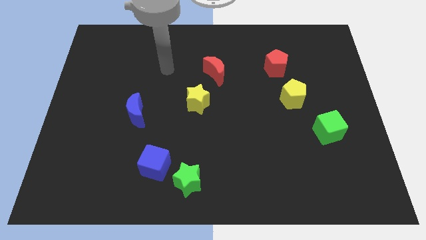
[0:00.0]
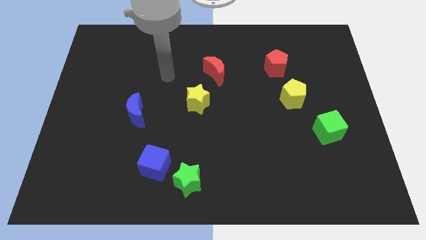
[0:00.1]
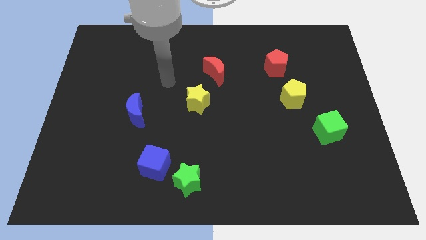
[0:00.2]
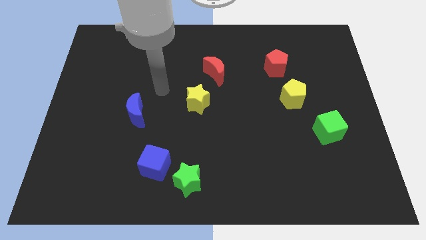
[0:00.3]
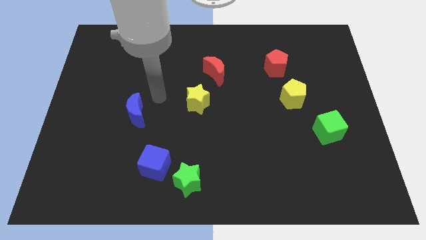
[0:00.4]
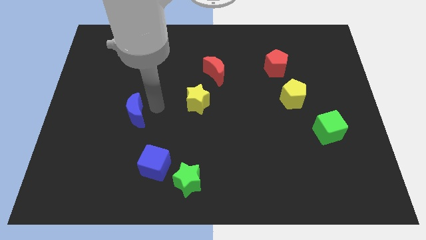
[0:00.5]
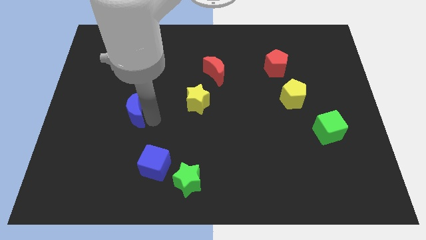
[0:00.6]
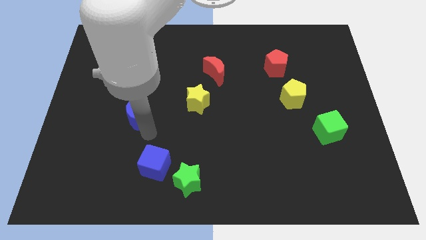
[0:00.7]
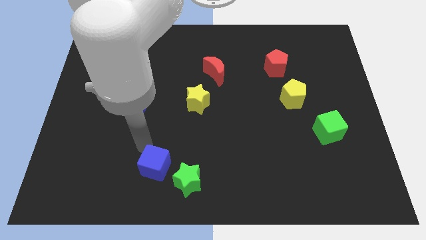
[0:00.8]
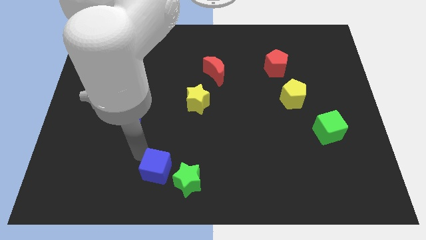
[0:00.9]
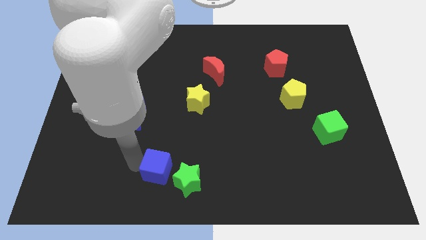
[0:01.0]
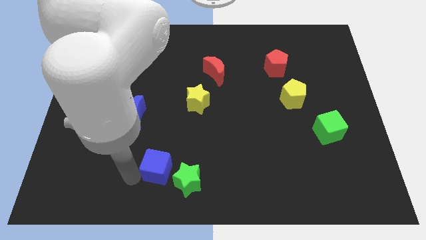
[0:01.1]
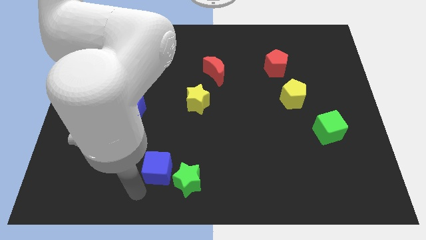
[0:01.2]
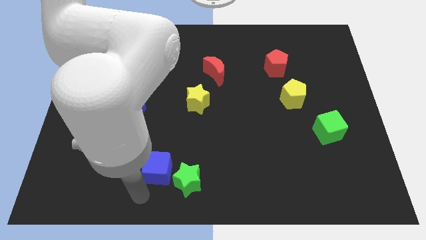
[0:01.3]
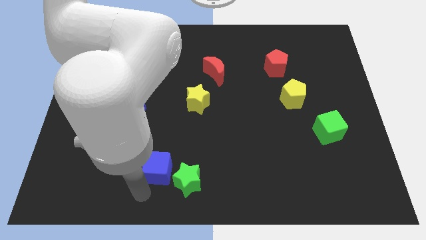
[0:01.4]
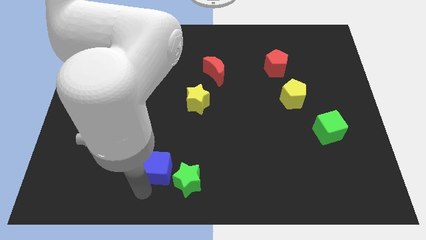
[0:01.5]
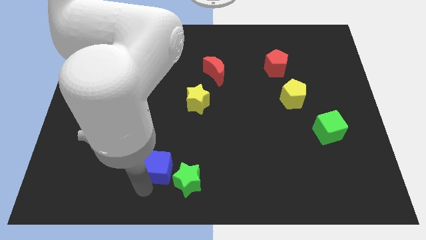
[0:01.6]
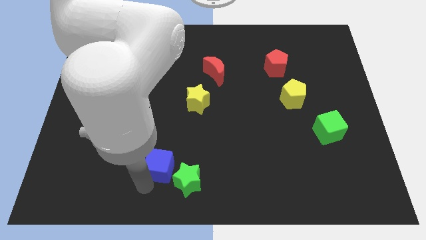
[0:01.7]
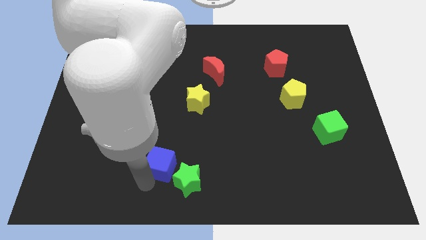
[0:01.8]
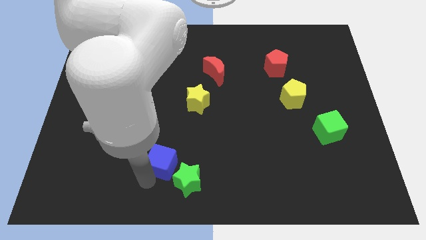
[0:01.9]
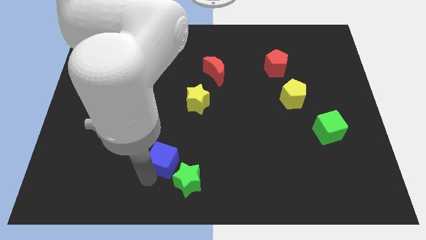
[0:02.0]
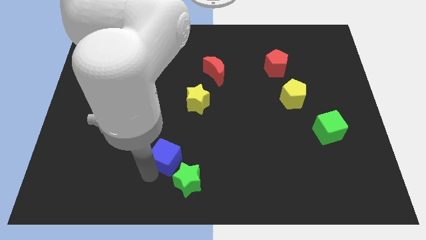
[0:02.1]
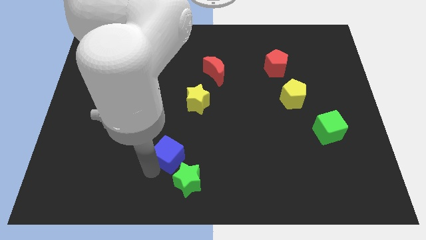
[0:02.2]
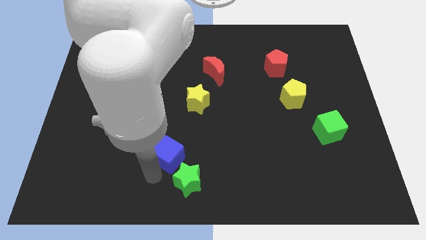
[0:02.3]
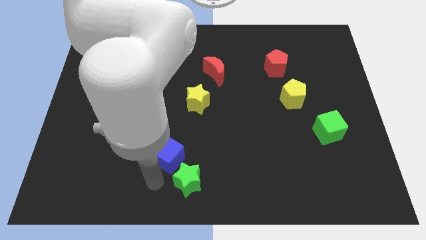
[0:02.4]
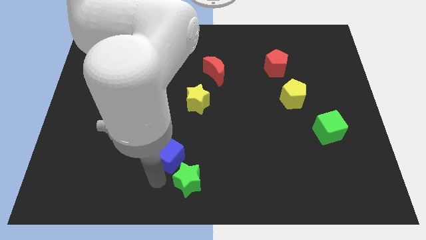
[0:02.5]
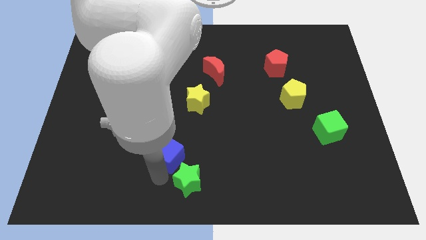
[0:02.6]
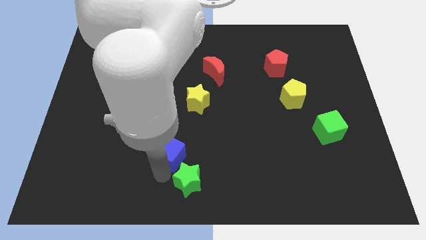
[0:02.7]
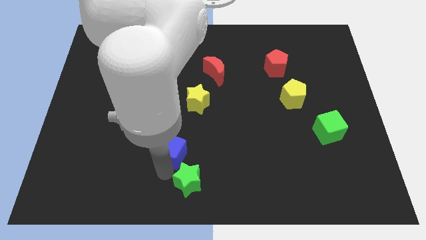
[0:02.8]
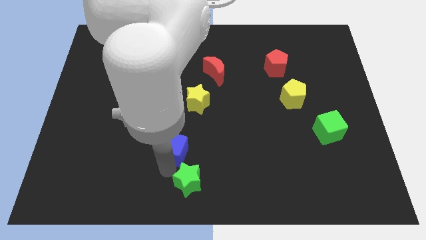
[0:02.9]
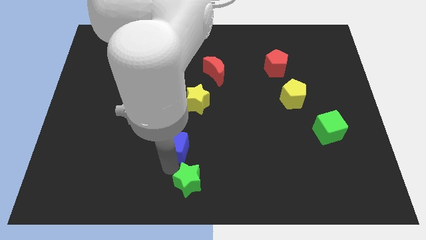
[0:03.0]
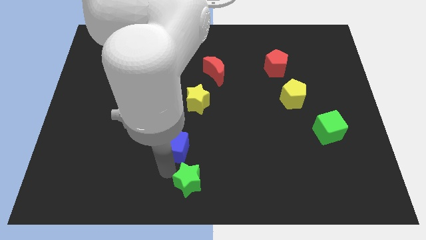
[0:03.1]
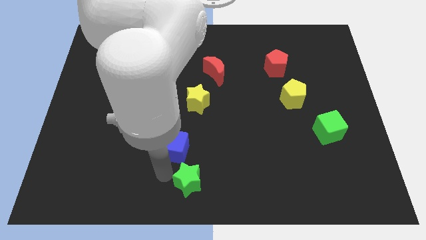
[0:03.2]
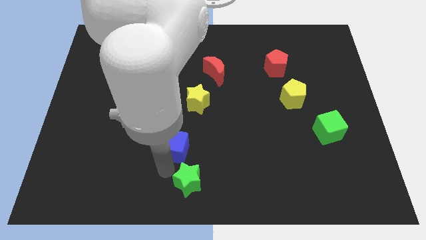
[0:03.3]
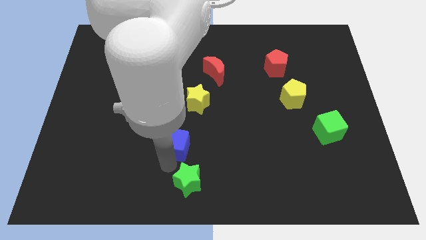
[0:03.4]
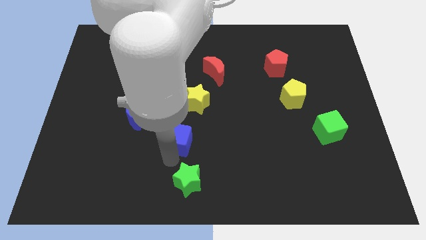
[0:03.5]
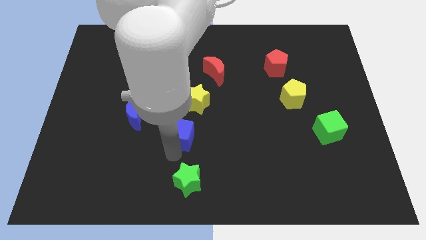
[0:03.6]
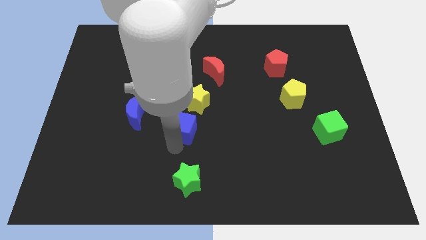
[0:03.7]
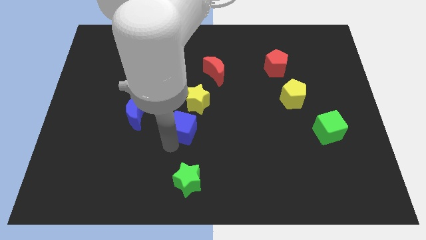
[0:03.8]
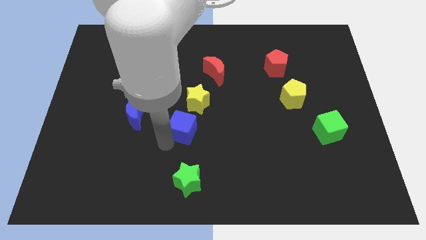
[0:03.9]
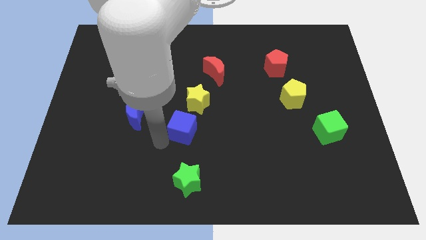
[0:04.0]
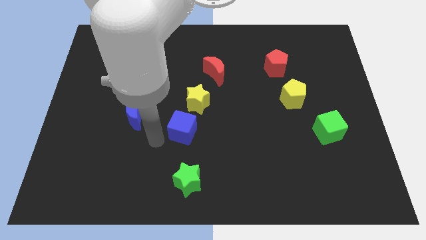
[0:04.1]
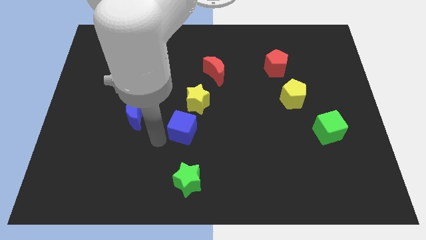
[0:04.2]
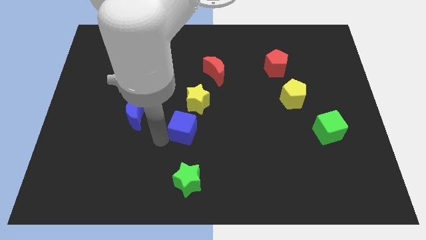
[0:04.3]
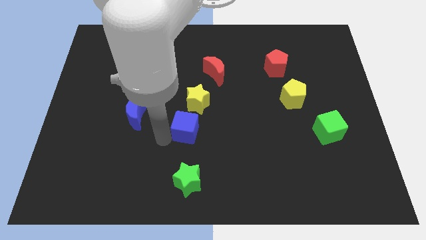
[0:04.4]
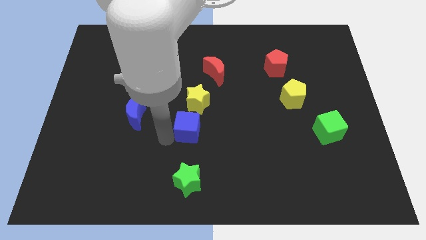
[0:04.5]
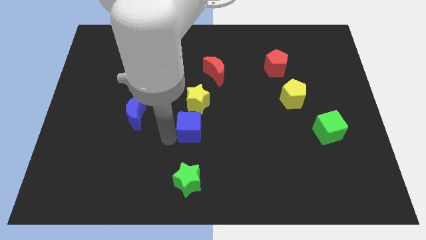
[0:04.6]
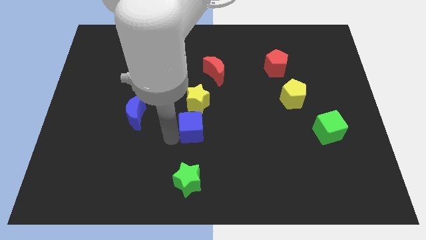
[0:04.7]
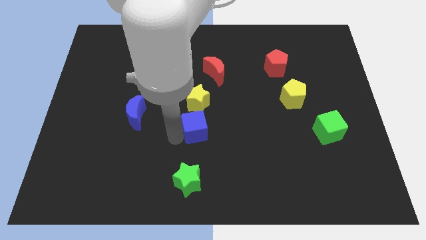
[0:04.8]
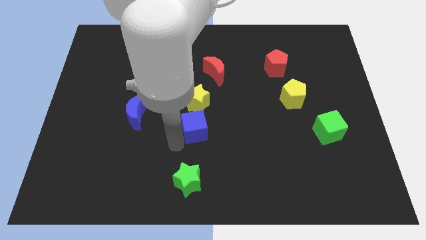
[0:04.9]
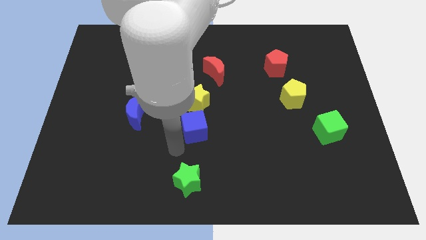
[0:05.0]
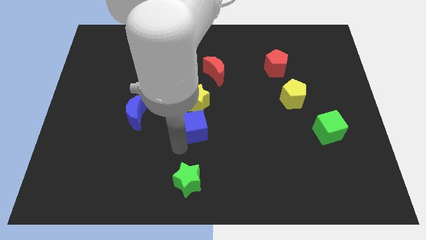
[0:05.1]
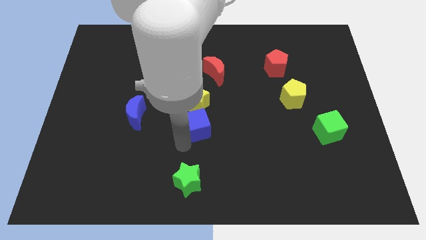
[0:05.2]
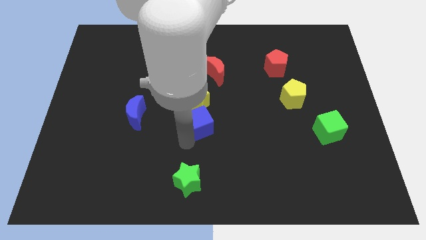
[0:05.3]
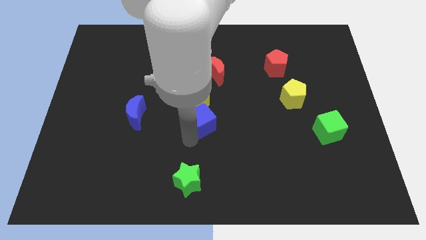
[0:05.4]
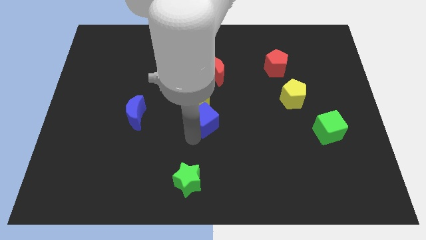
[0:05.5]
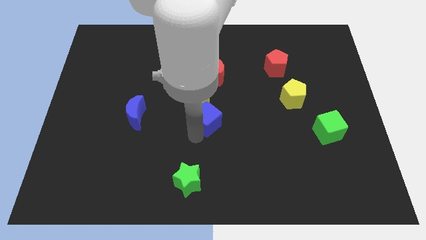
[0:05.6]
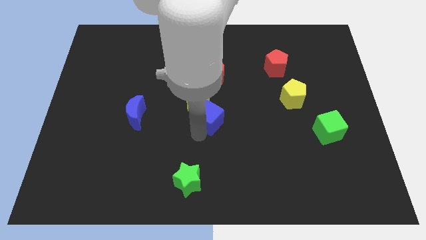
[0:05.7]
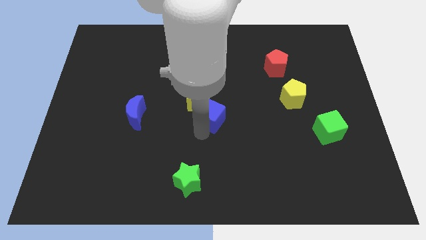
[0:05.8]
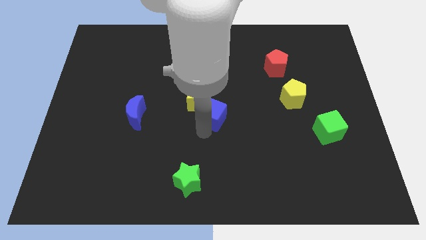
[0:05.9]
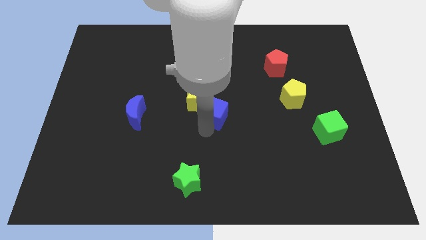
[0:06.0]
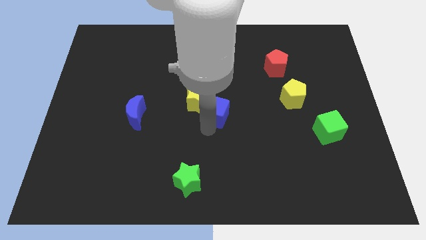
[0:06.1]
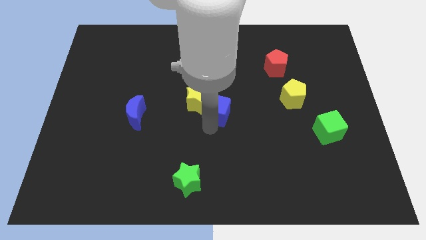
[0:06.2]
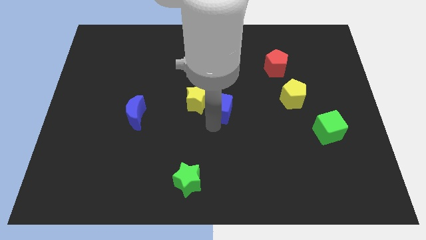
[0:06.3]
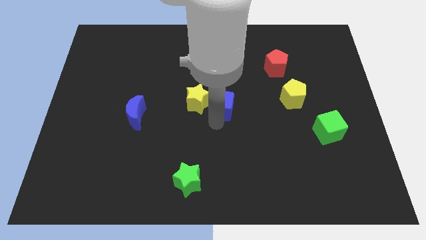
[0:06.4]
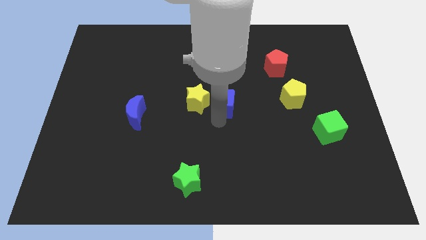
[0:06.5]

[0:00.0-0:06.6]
move the blue cube diagonally up and to the right of the yellow star

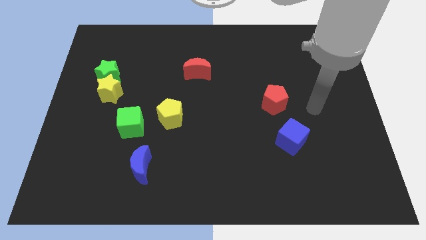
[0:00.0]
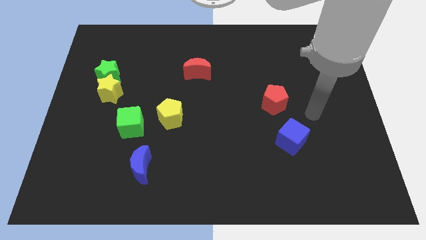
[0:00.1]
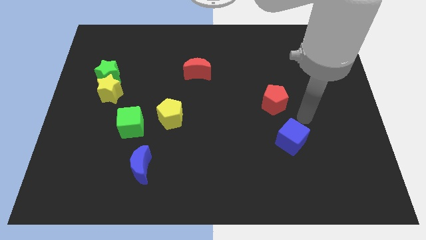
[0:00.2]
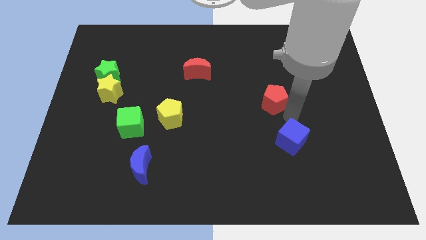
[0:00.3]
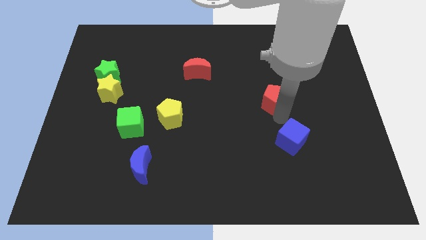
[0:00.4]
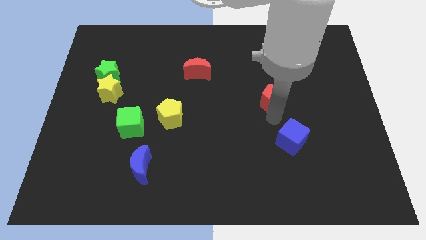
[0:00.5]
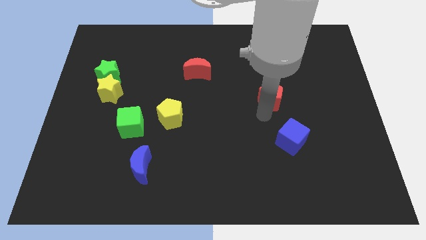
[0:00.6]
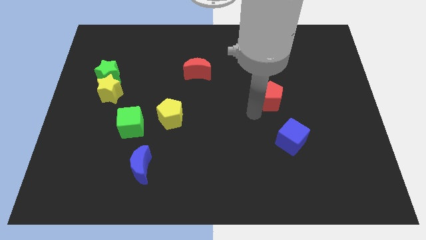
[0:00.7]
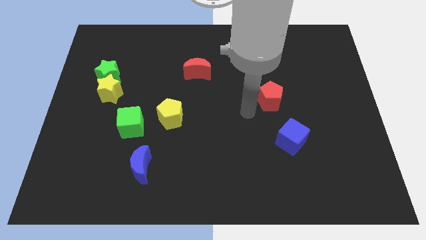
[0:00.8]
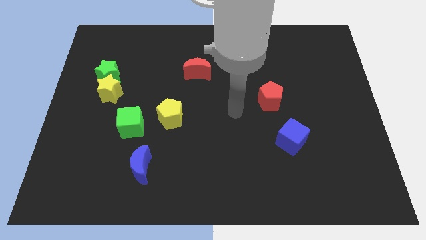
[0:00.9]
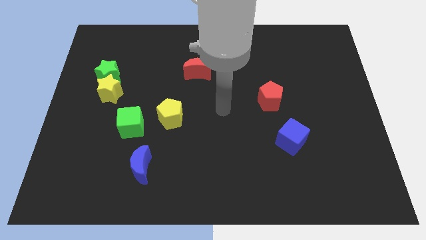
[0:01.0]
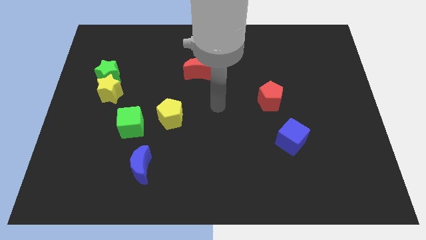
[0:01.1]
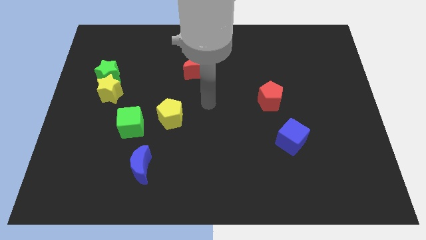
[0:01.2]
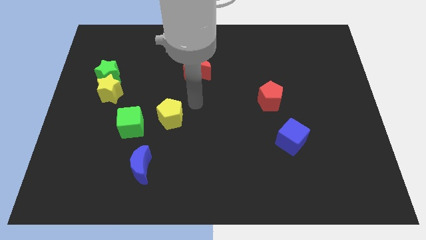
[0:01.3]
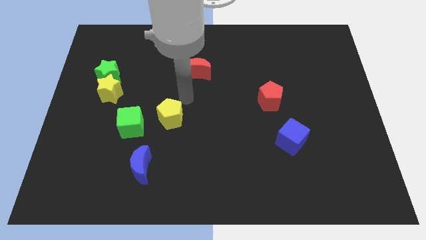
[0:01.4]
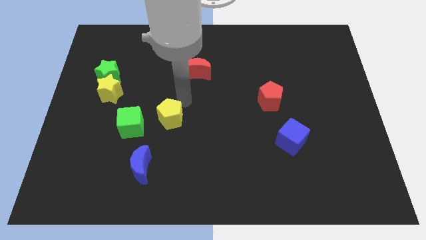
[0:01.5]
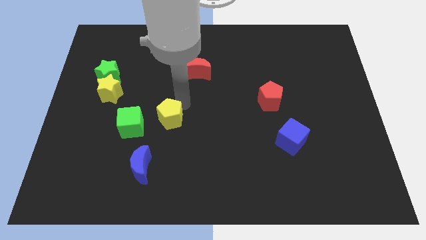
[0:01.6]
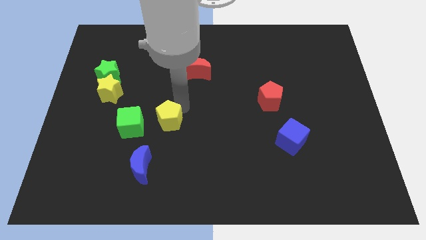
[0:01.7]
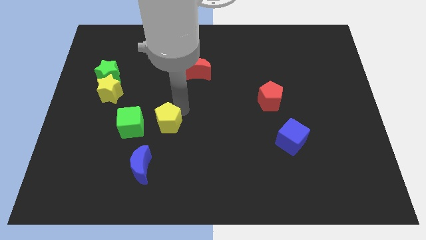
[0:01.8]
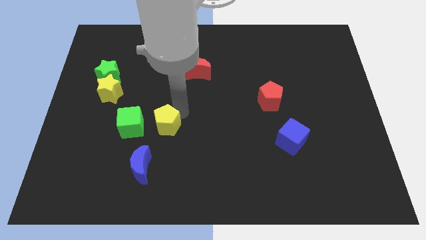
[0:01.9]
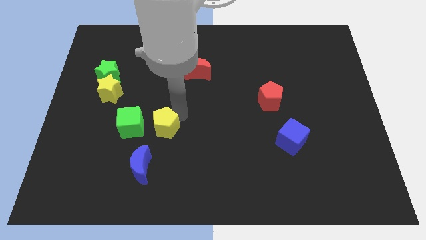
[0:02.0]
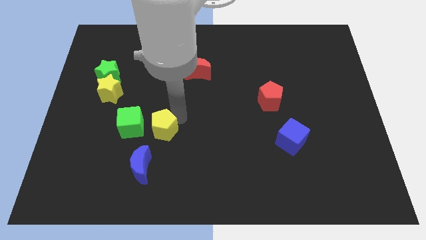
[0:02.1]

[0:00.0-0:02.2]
slide the yellow pentagon to the bottom right of the green cube
